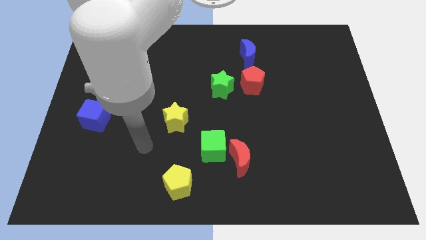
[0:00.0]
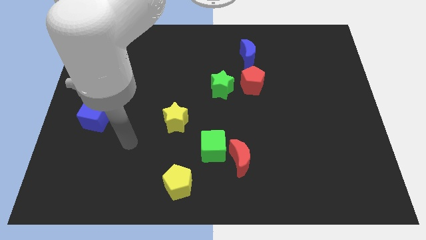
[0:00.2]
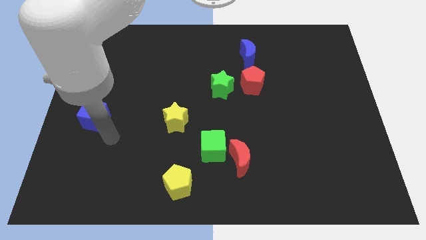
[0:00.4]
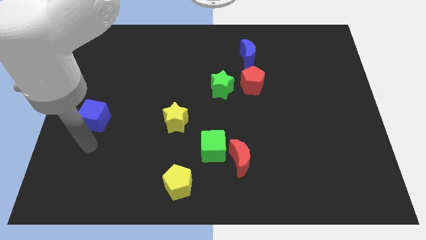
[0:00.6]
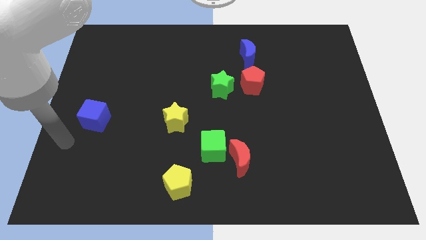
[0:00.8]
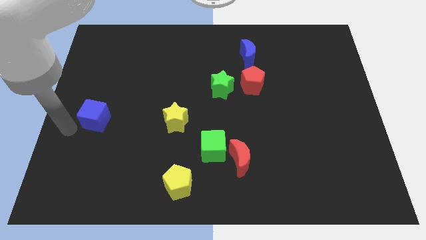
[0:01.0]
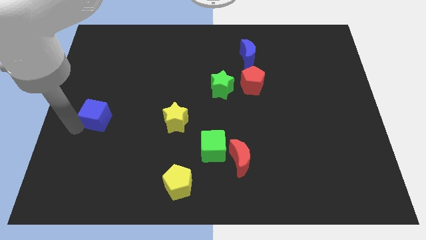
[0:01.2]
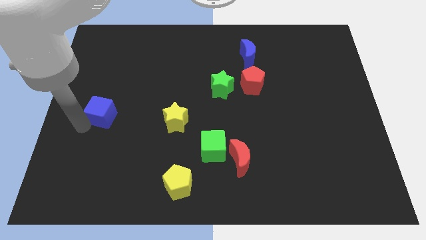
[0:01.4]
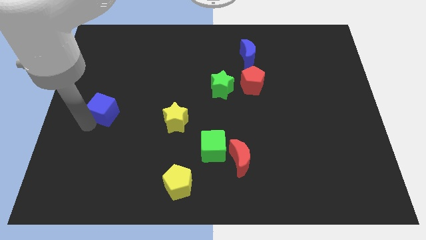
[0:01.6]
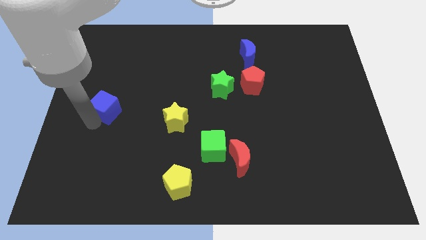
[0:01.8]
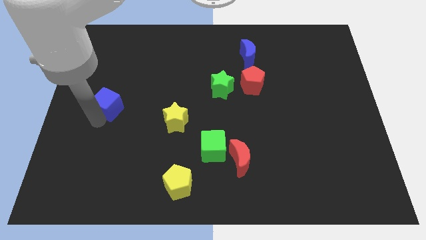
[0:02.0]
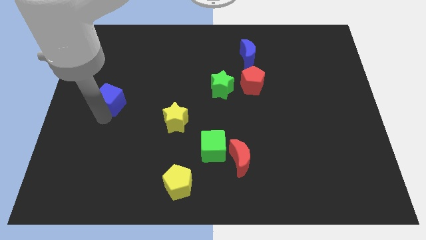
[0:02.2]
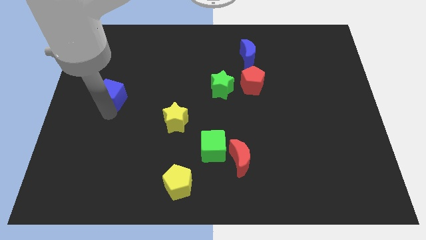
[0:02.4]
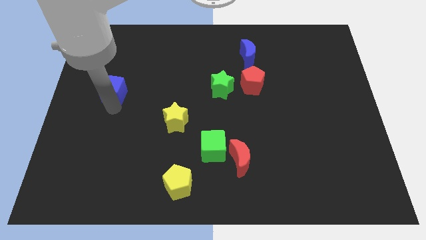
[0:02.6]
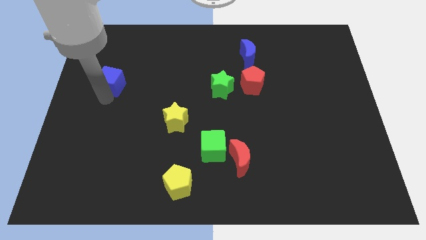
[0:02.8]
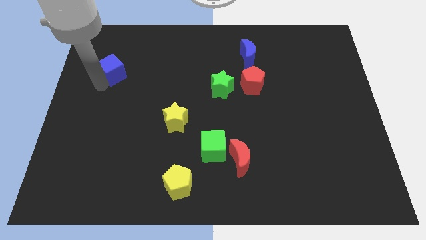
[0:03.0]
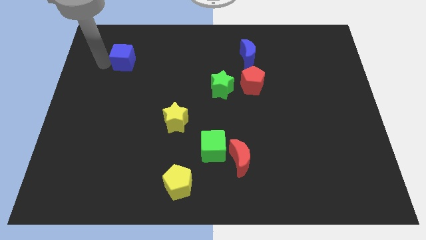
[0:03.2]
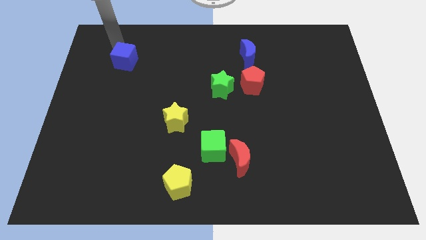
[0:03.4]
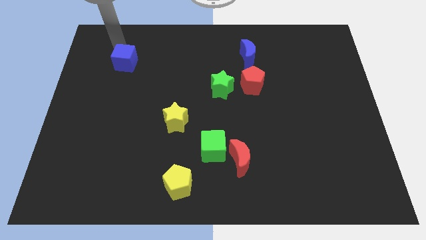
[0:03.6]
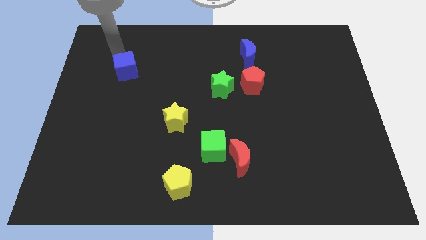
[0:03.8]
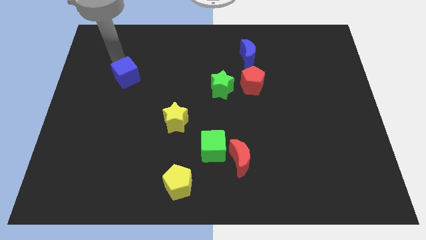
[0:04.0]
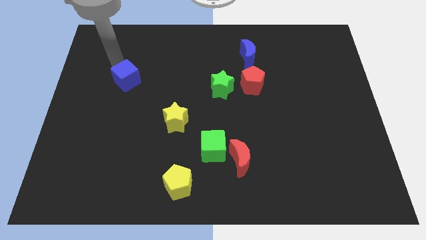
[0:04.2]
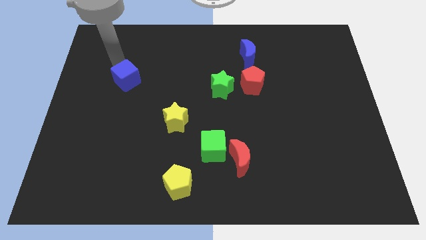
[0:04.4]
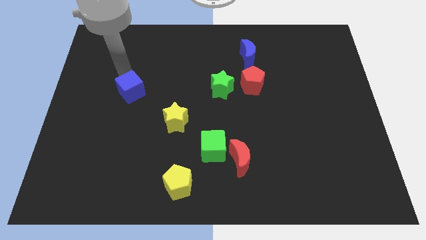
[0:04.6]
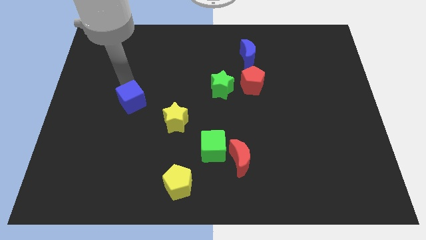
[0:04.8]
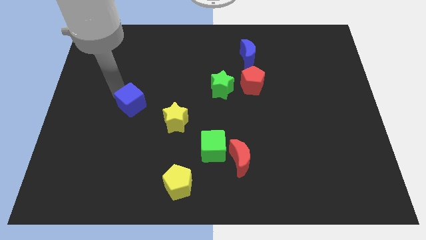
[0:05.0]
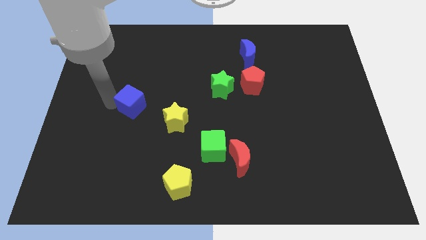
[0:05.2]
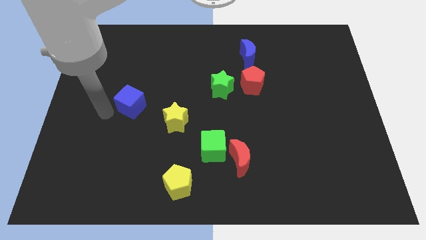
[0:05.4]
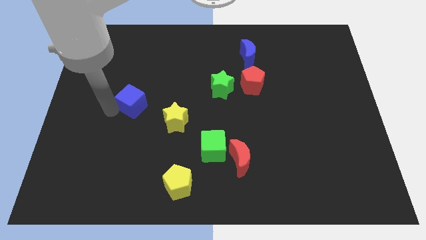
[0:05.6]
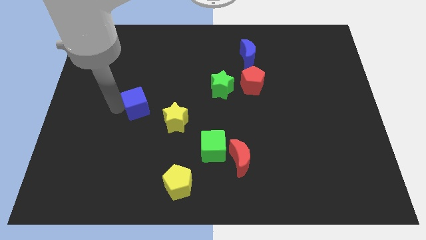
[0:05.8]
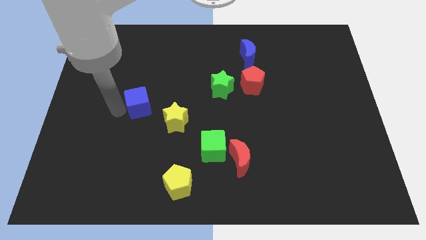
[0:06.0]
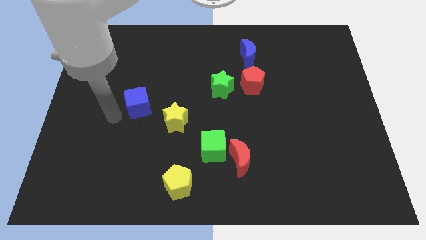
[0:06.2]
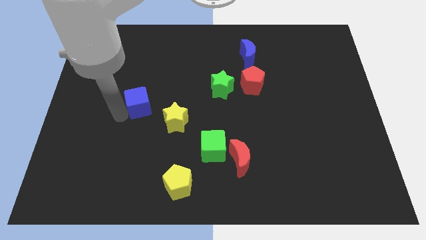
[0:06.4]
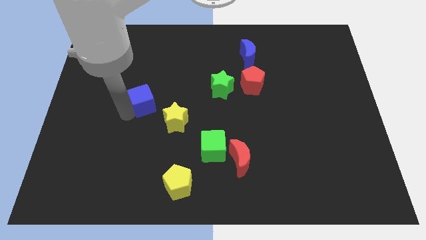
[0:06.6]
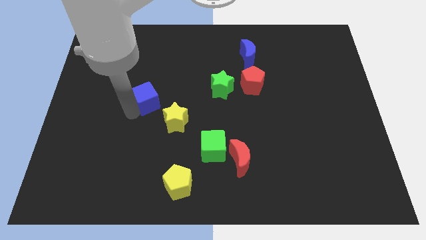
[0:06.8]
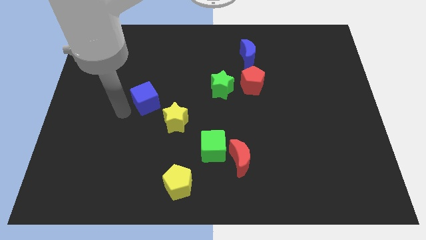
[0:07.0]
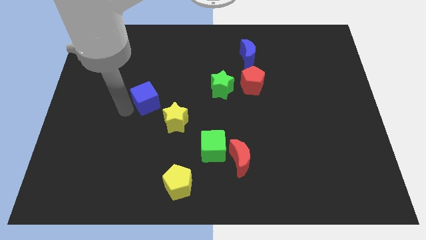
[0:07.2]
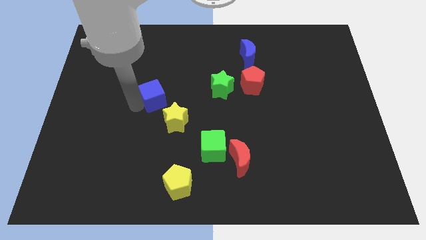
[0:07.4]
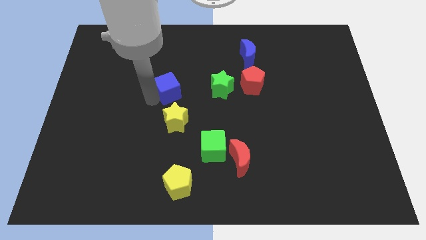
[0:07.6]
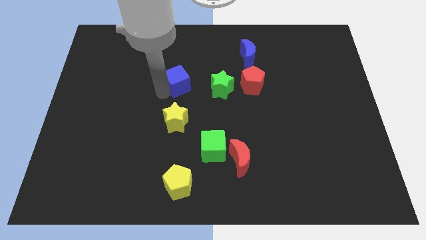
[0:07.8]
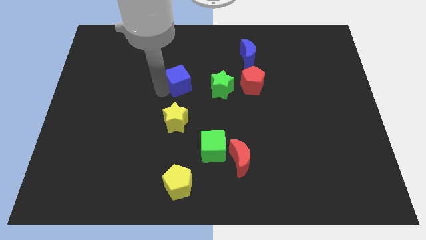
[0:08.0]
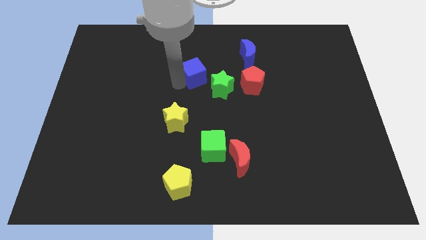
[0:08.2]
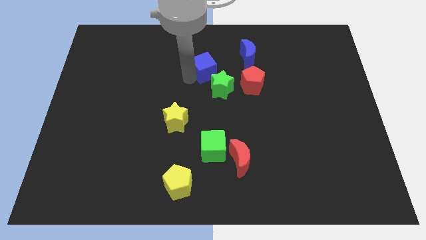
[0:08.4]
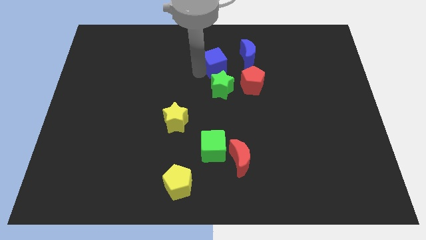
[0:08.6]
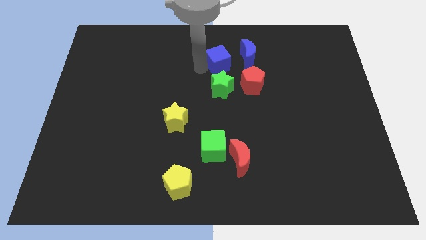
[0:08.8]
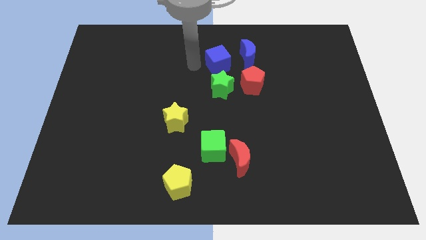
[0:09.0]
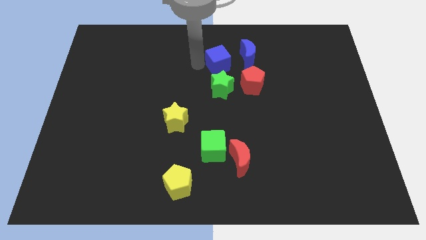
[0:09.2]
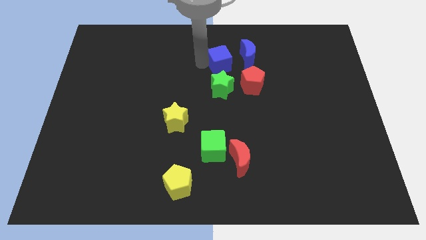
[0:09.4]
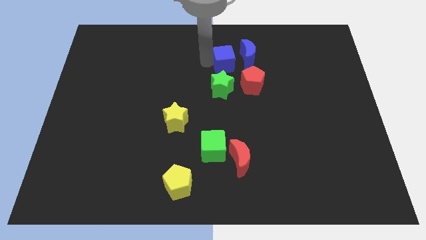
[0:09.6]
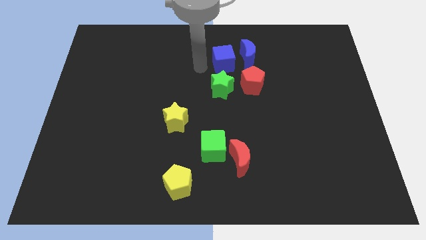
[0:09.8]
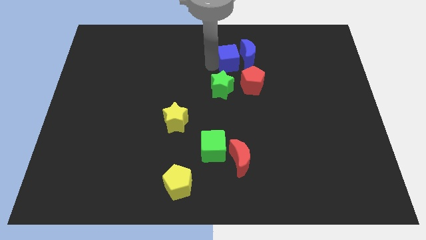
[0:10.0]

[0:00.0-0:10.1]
put the blue cube towards the blue moon

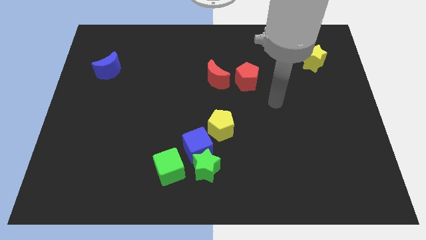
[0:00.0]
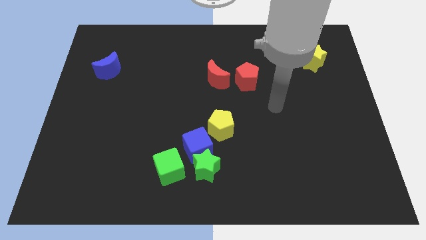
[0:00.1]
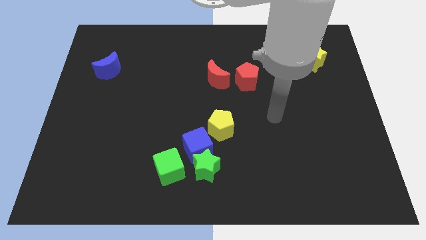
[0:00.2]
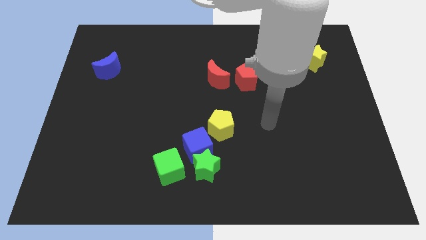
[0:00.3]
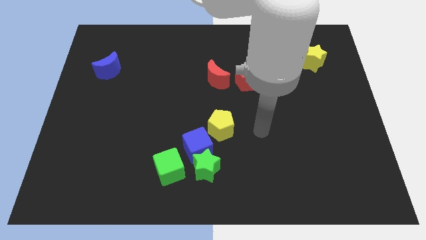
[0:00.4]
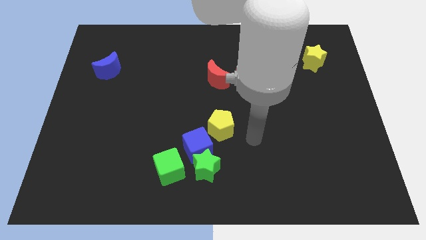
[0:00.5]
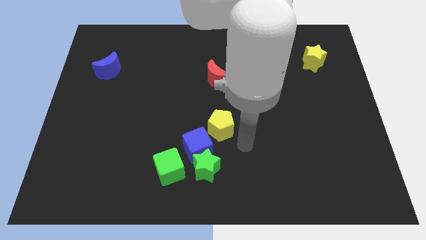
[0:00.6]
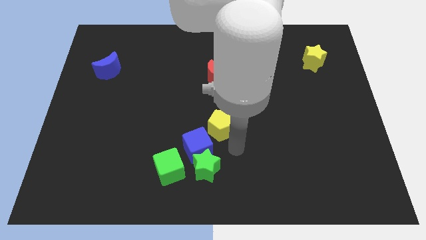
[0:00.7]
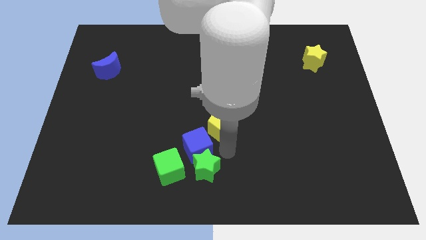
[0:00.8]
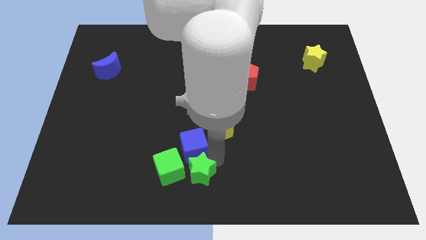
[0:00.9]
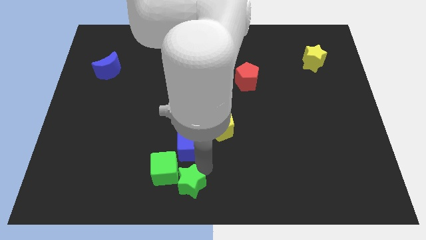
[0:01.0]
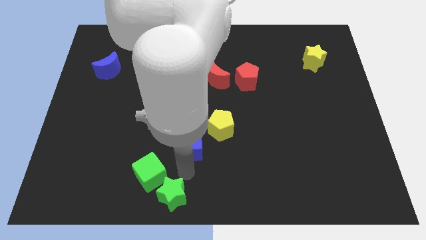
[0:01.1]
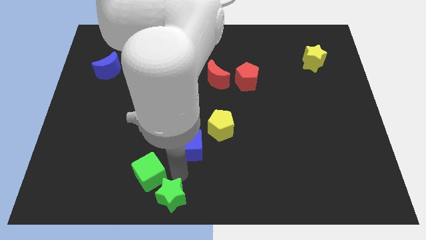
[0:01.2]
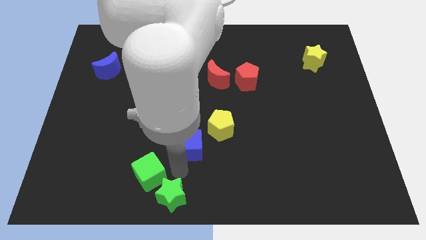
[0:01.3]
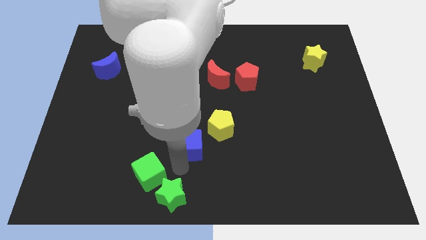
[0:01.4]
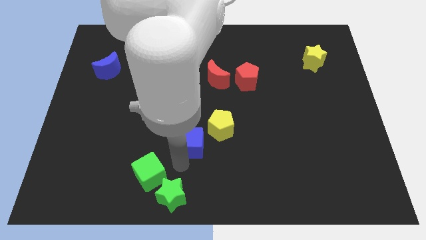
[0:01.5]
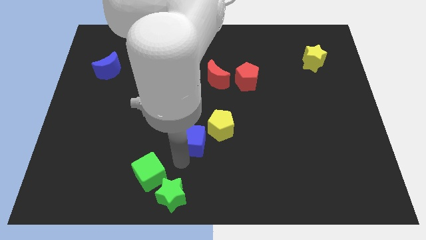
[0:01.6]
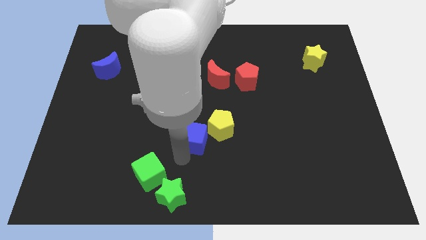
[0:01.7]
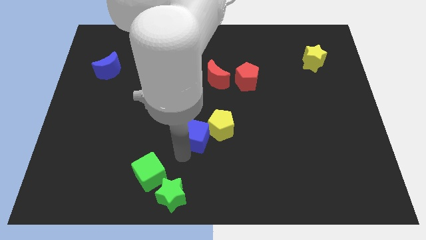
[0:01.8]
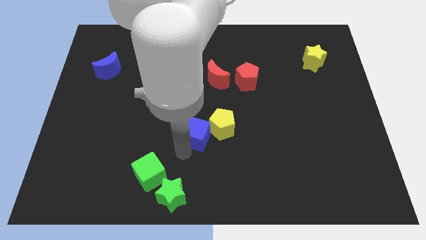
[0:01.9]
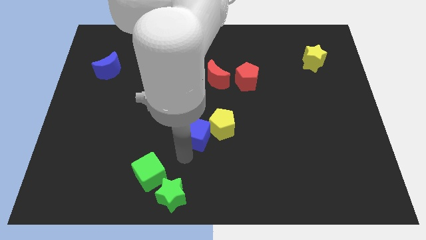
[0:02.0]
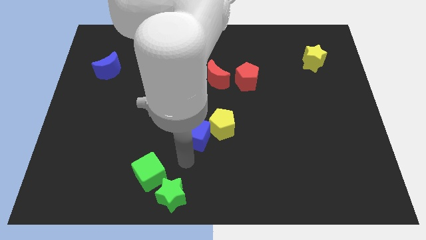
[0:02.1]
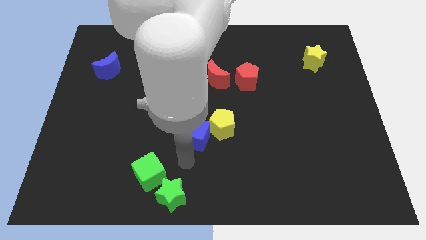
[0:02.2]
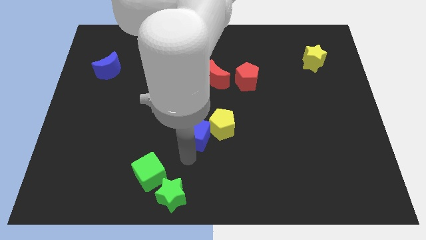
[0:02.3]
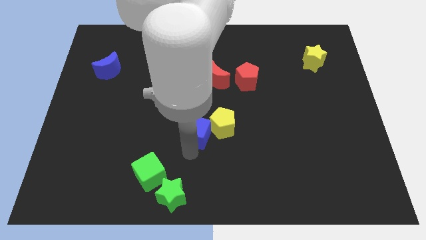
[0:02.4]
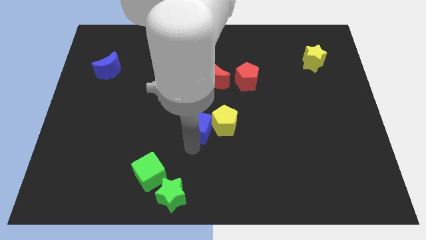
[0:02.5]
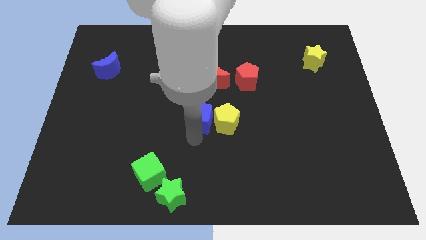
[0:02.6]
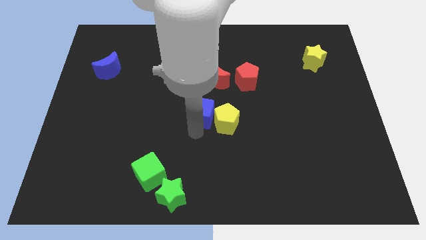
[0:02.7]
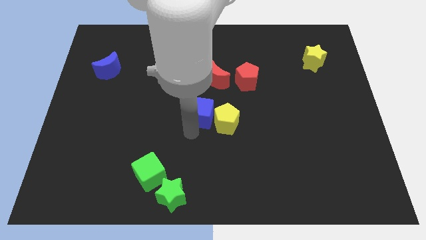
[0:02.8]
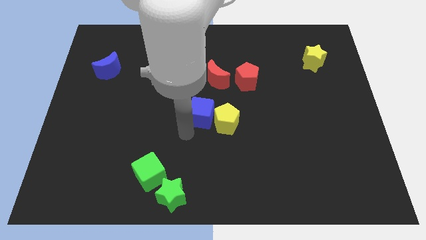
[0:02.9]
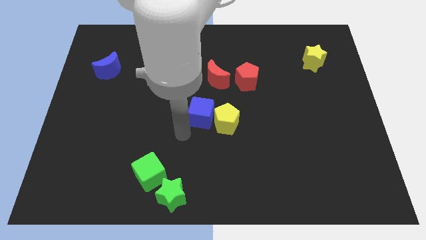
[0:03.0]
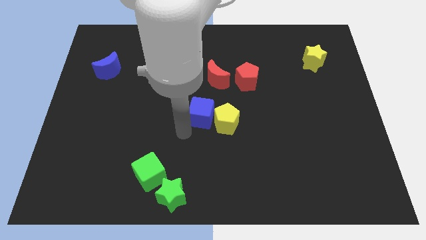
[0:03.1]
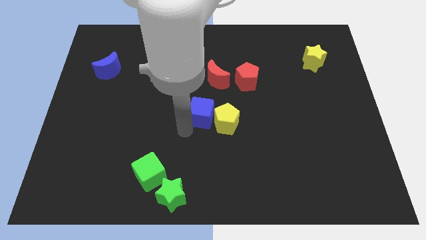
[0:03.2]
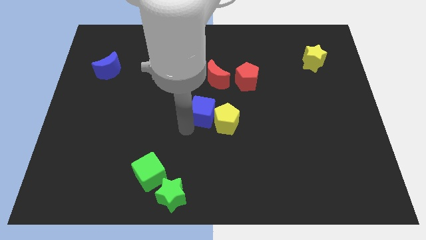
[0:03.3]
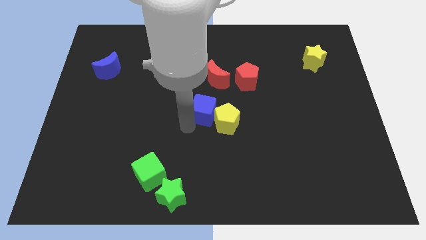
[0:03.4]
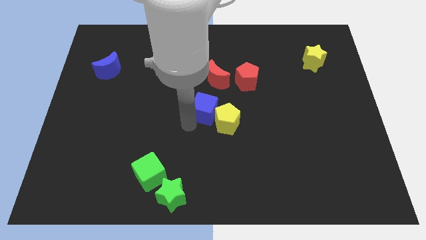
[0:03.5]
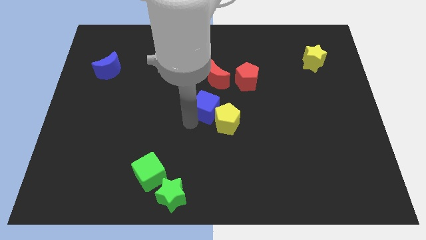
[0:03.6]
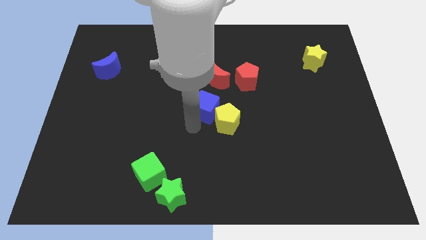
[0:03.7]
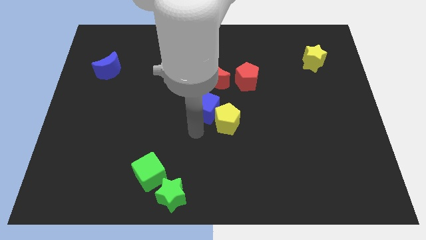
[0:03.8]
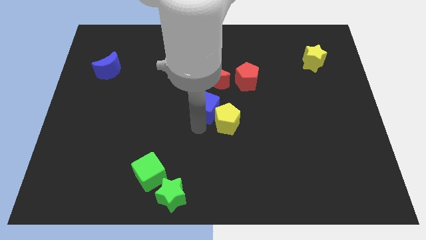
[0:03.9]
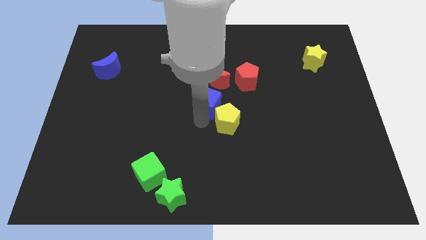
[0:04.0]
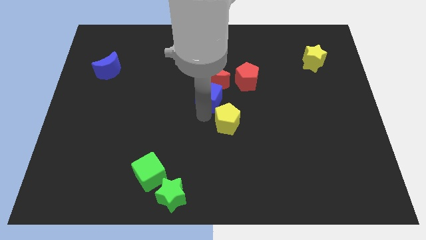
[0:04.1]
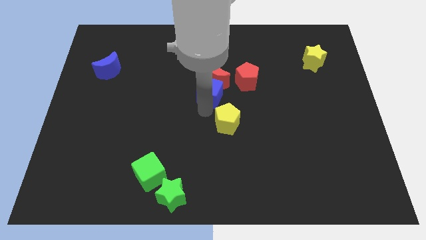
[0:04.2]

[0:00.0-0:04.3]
slide the blue cube towards the red moon
